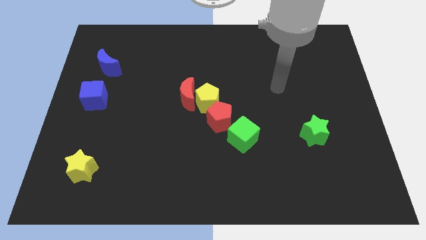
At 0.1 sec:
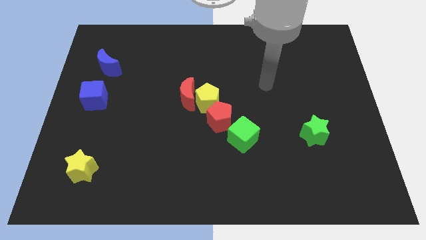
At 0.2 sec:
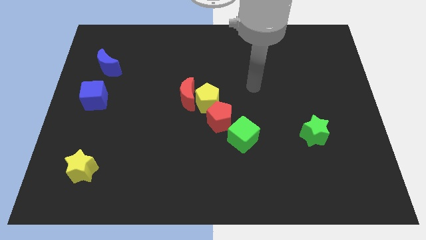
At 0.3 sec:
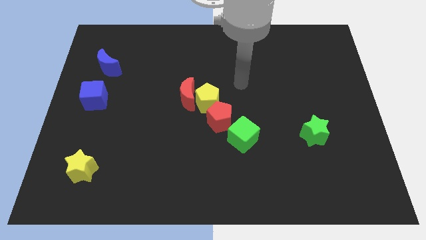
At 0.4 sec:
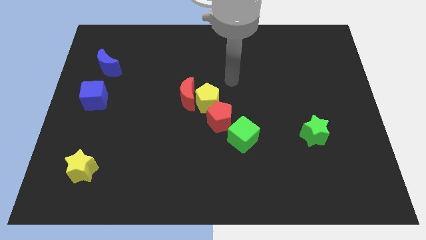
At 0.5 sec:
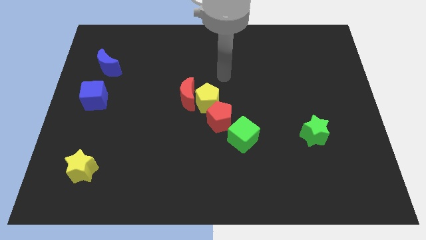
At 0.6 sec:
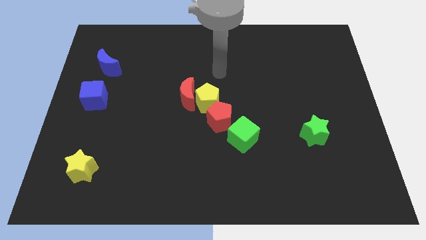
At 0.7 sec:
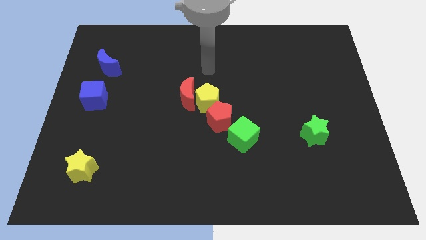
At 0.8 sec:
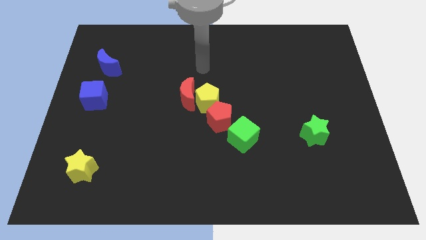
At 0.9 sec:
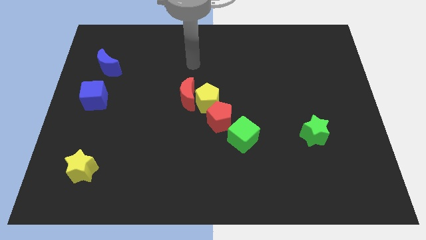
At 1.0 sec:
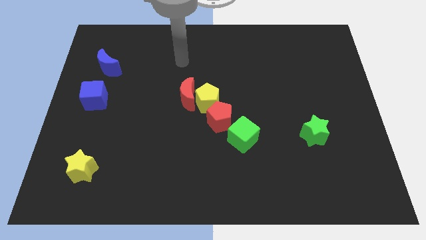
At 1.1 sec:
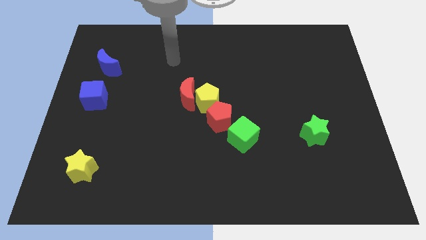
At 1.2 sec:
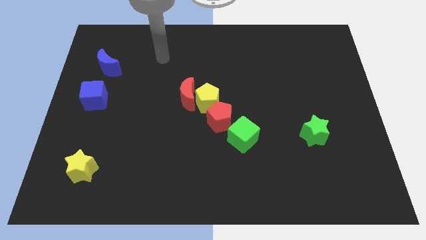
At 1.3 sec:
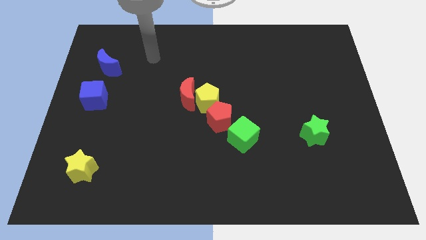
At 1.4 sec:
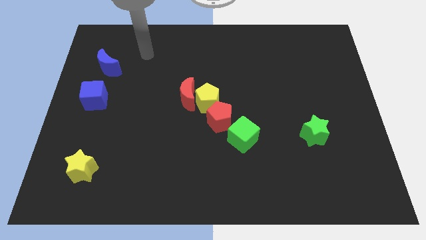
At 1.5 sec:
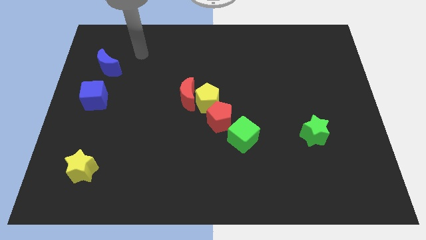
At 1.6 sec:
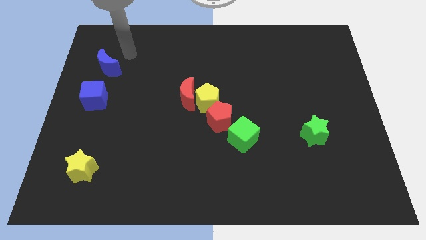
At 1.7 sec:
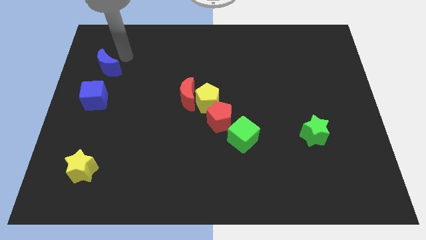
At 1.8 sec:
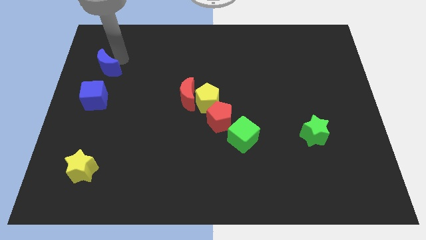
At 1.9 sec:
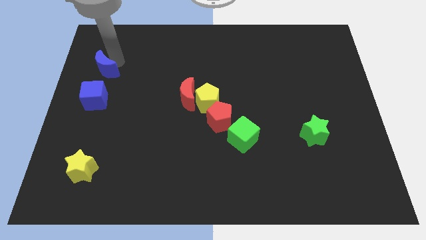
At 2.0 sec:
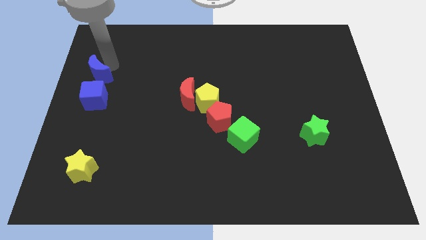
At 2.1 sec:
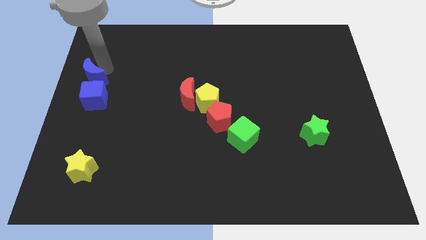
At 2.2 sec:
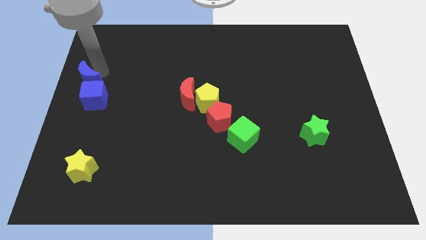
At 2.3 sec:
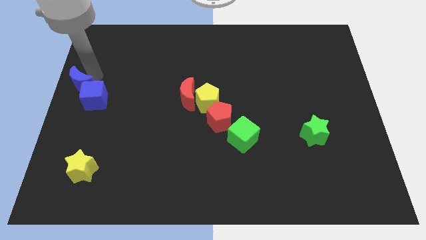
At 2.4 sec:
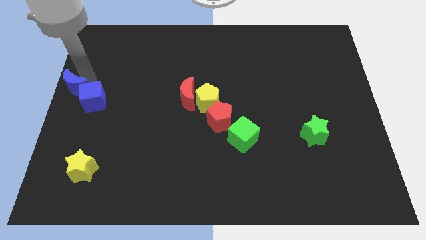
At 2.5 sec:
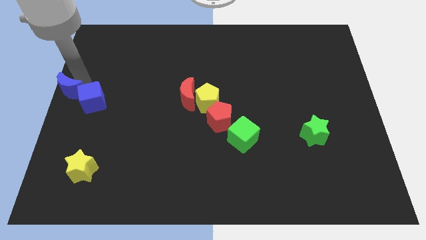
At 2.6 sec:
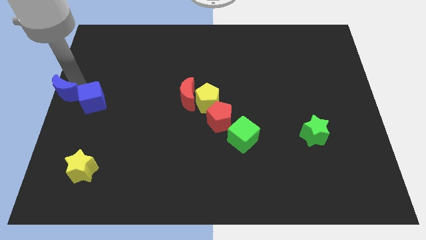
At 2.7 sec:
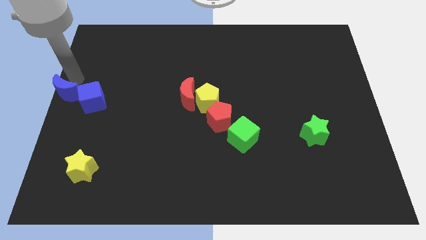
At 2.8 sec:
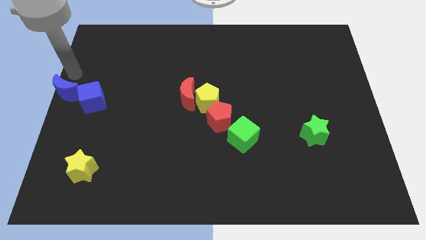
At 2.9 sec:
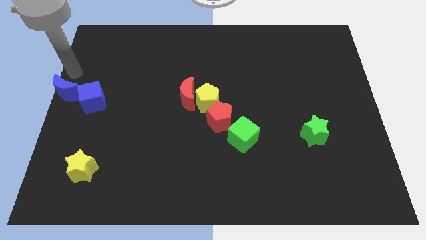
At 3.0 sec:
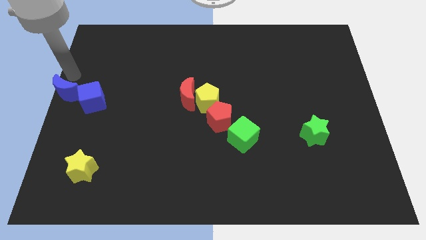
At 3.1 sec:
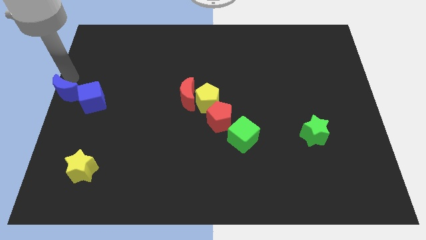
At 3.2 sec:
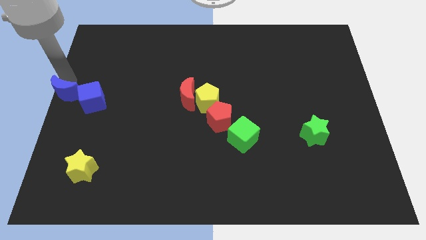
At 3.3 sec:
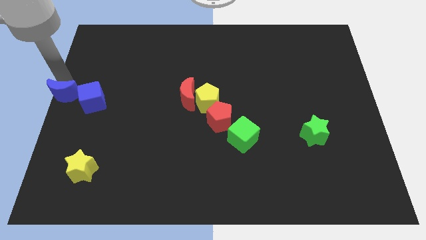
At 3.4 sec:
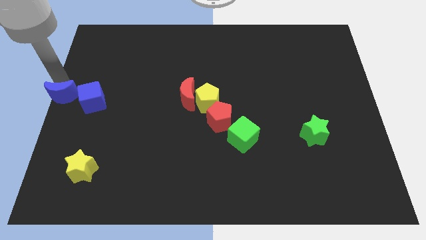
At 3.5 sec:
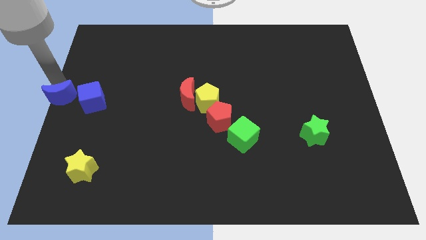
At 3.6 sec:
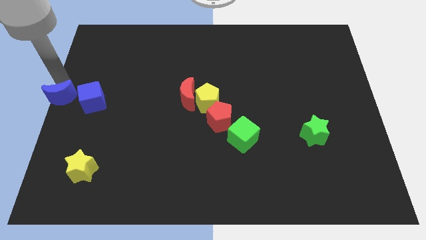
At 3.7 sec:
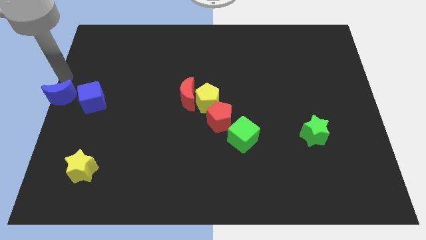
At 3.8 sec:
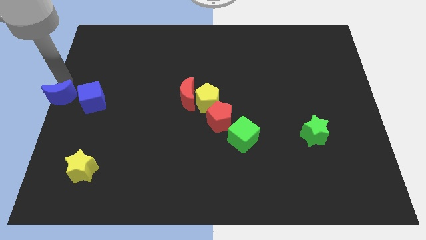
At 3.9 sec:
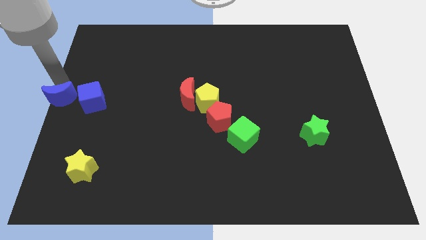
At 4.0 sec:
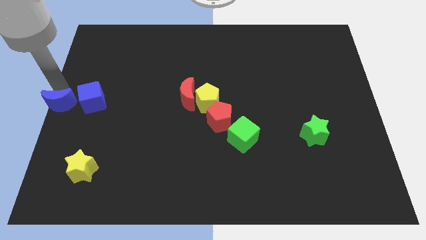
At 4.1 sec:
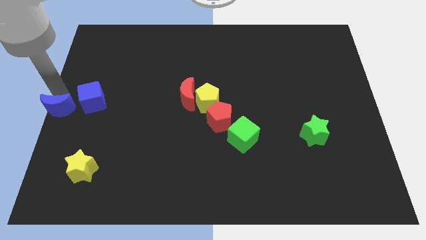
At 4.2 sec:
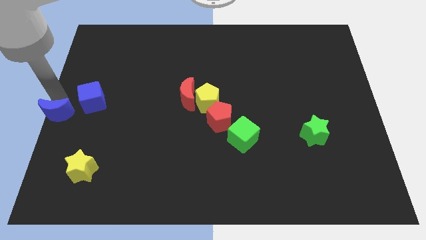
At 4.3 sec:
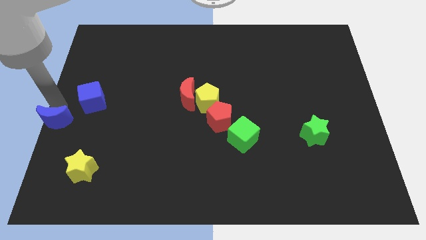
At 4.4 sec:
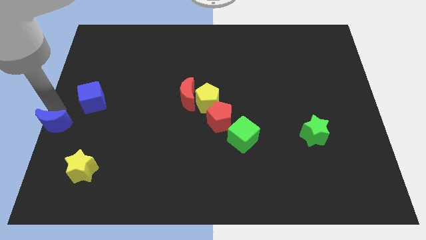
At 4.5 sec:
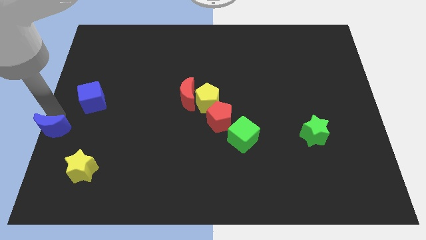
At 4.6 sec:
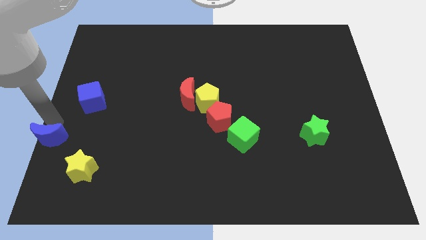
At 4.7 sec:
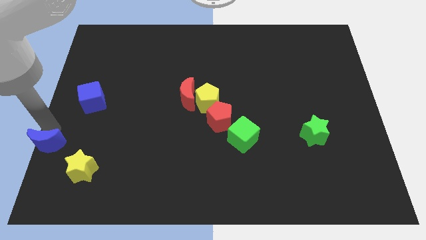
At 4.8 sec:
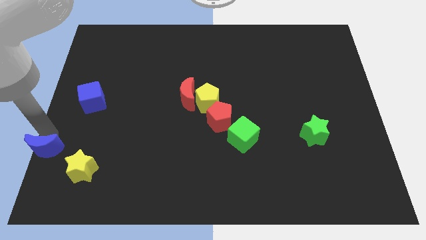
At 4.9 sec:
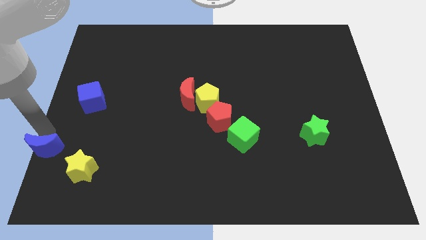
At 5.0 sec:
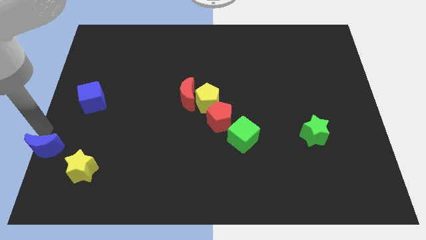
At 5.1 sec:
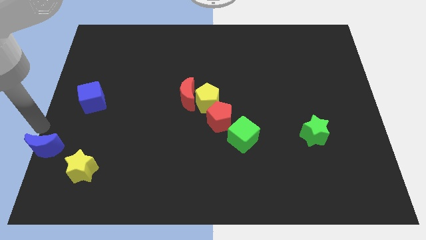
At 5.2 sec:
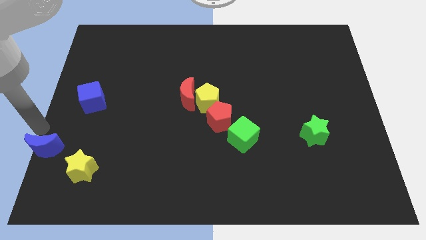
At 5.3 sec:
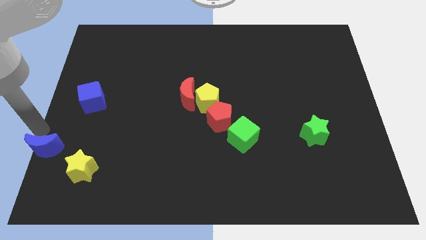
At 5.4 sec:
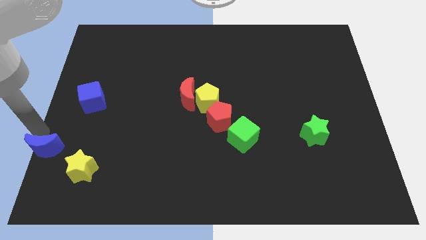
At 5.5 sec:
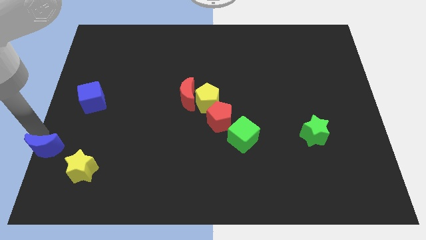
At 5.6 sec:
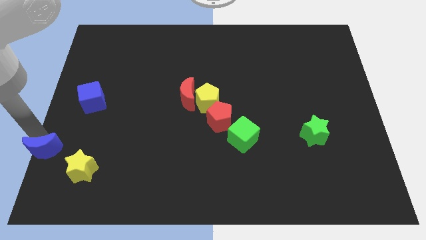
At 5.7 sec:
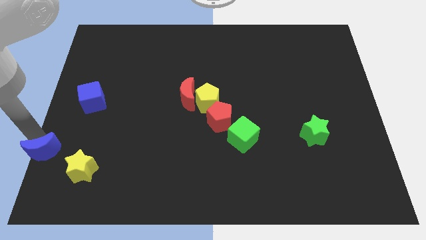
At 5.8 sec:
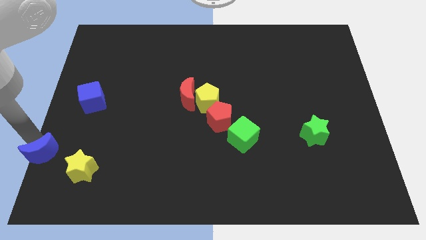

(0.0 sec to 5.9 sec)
put the blue moon to the bottom left of the board

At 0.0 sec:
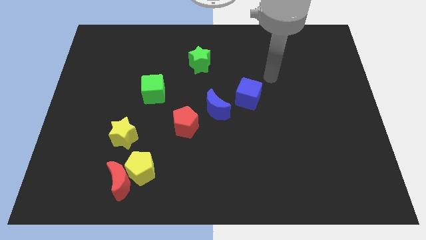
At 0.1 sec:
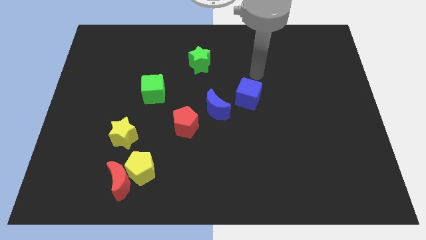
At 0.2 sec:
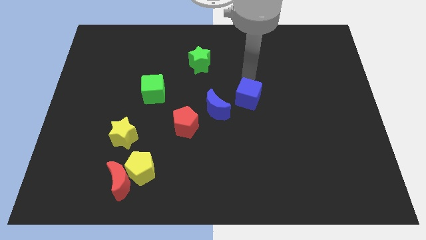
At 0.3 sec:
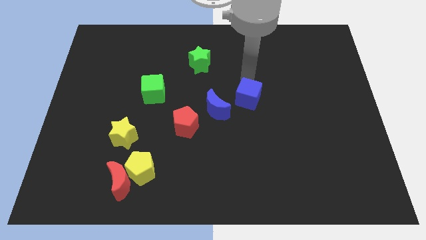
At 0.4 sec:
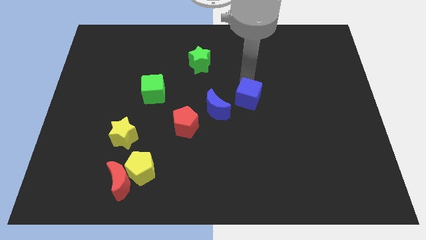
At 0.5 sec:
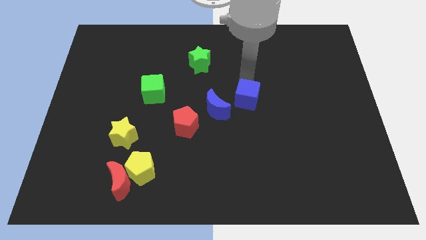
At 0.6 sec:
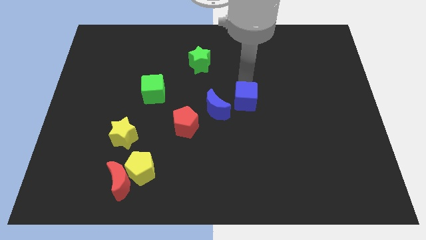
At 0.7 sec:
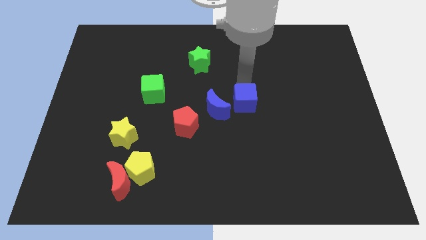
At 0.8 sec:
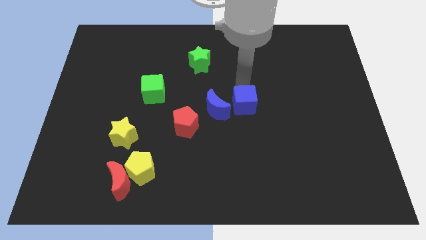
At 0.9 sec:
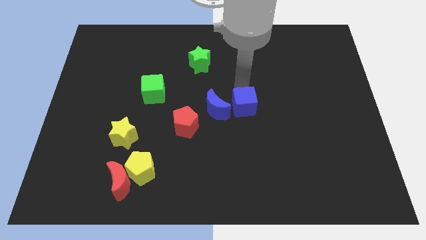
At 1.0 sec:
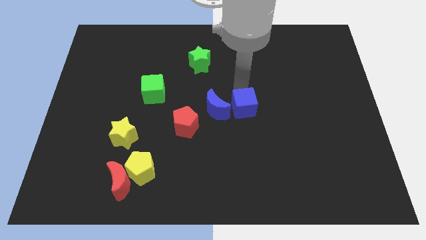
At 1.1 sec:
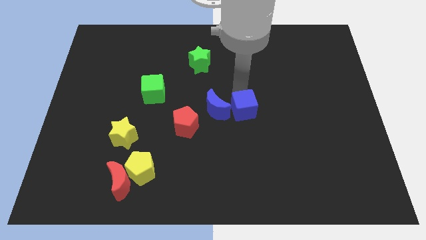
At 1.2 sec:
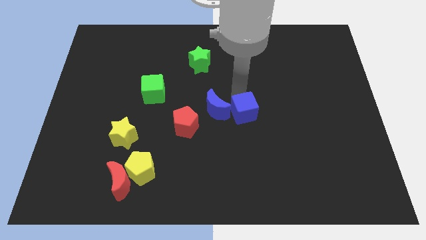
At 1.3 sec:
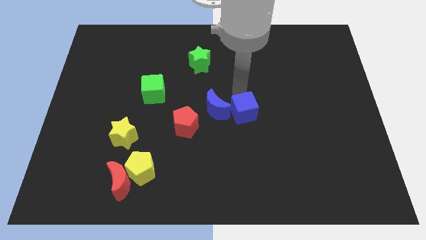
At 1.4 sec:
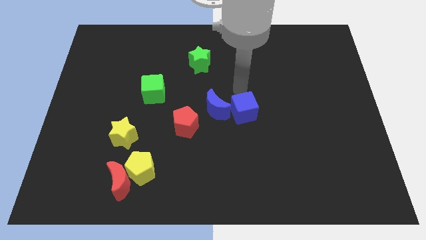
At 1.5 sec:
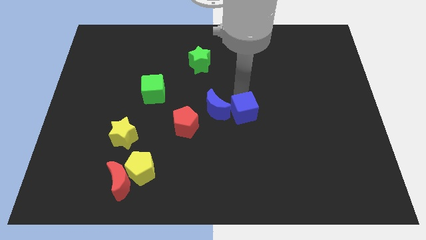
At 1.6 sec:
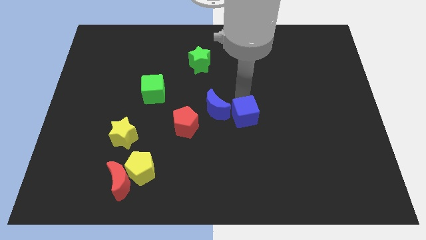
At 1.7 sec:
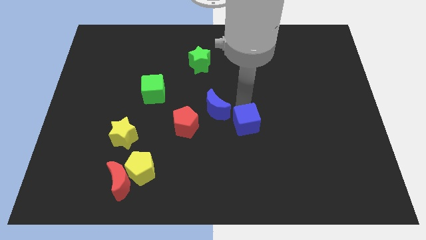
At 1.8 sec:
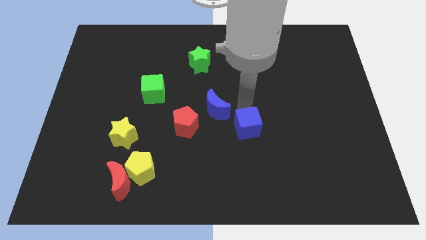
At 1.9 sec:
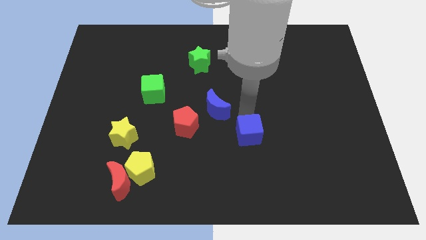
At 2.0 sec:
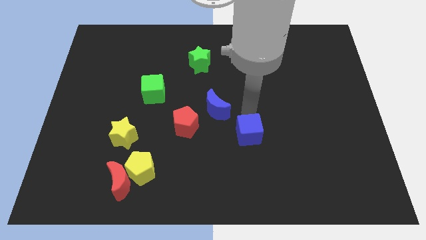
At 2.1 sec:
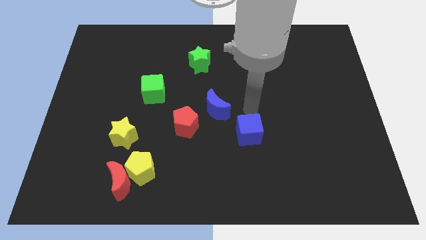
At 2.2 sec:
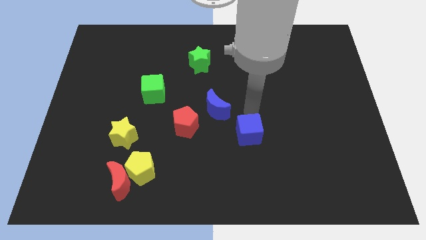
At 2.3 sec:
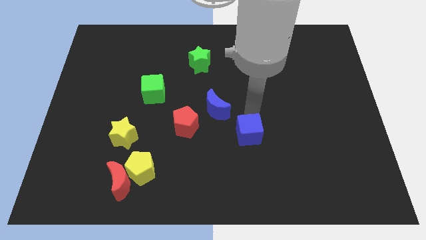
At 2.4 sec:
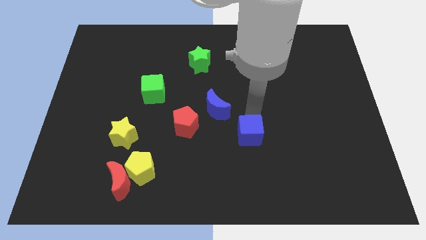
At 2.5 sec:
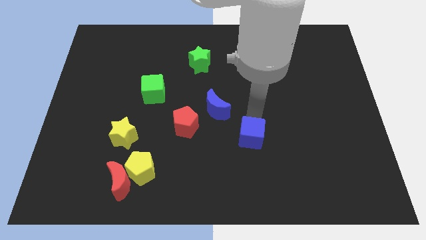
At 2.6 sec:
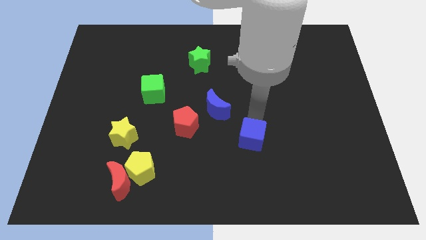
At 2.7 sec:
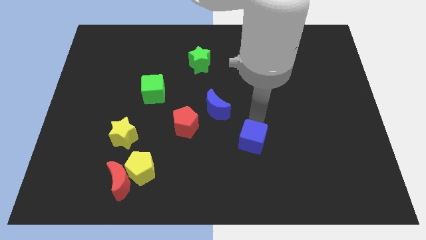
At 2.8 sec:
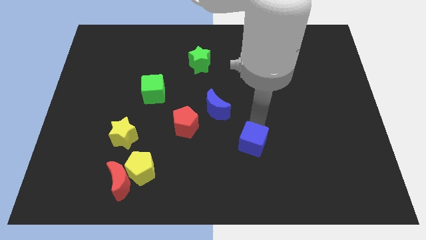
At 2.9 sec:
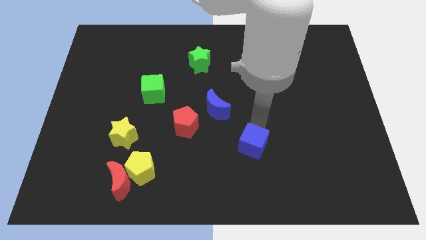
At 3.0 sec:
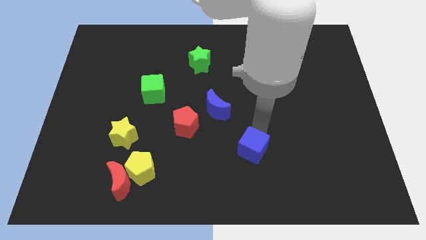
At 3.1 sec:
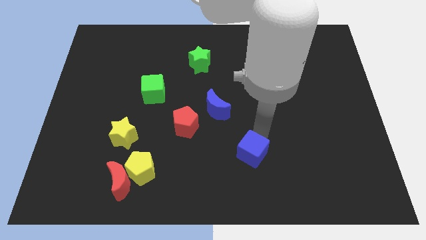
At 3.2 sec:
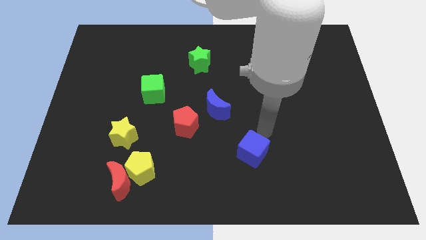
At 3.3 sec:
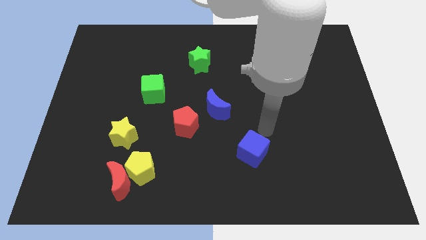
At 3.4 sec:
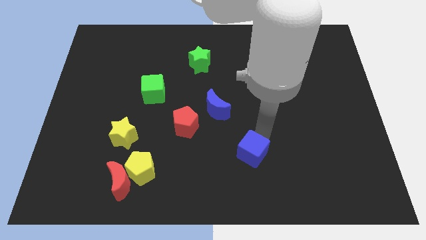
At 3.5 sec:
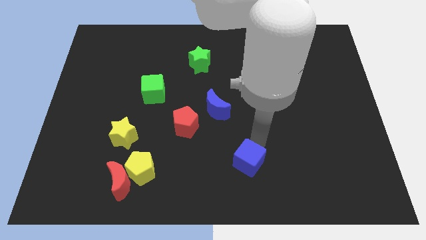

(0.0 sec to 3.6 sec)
push the blue cube to the bottom
